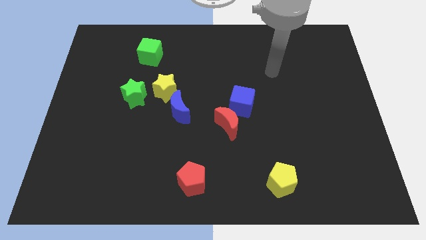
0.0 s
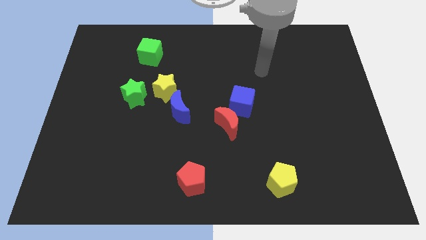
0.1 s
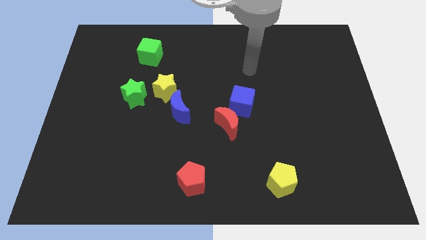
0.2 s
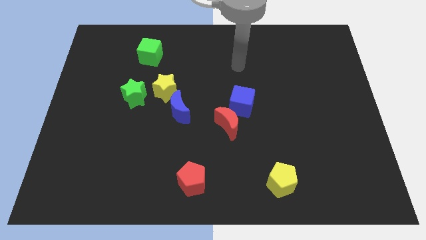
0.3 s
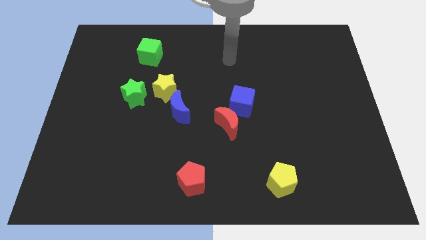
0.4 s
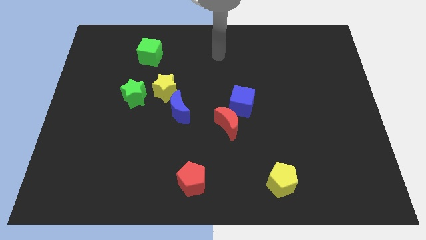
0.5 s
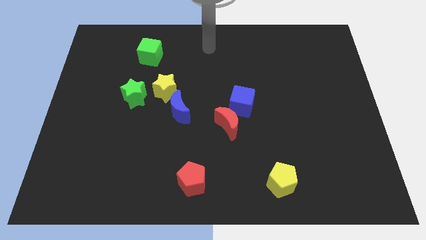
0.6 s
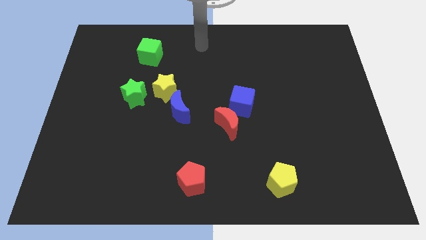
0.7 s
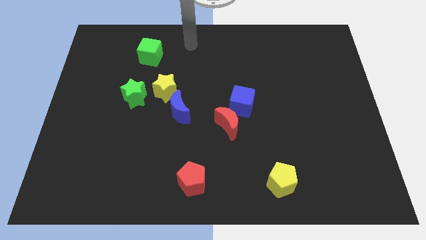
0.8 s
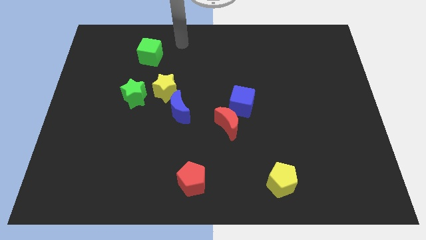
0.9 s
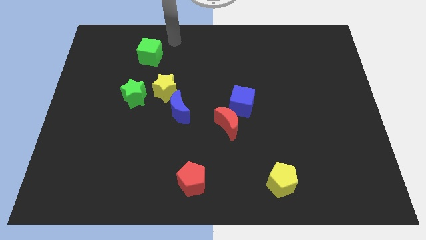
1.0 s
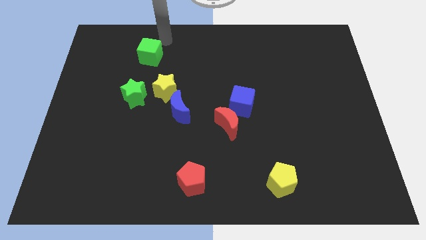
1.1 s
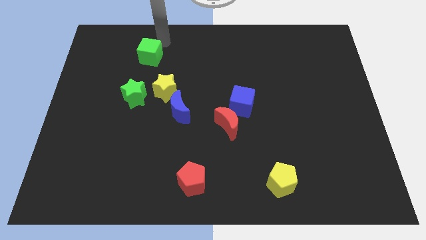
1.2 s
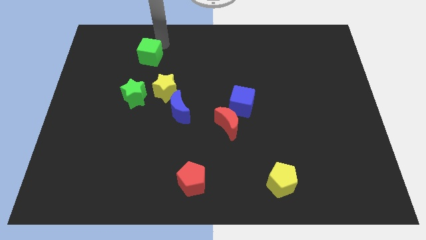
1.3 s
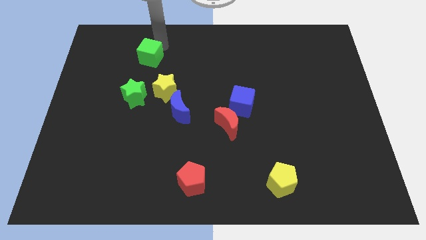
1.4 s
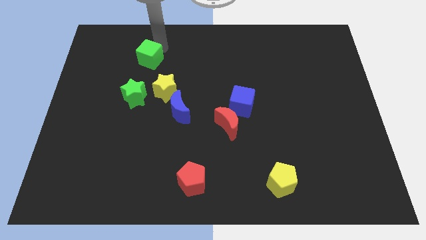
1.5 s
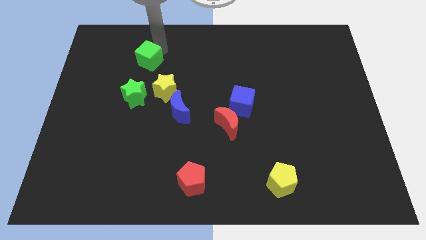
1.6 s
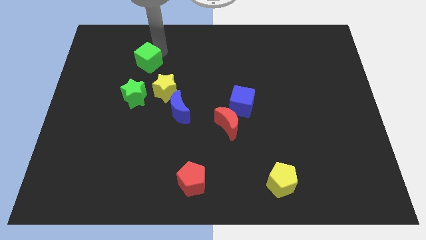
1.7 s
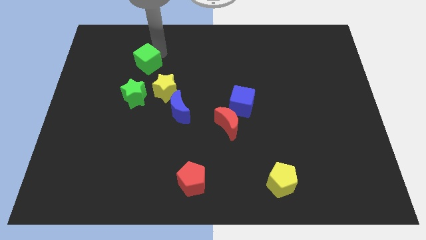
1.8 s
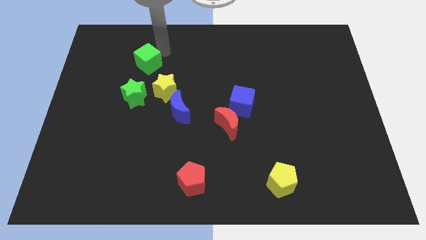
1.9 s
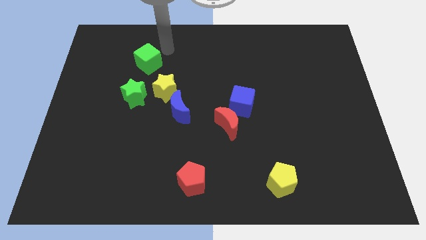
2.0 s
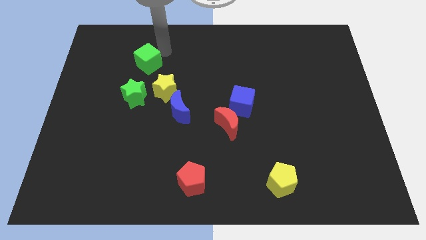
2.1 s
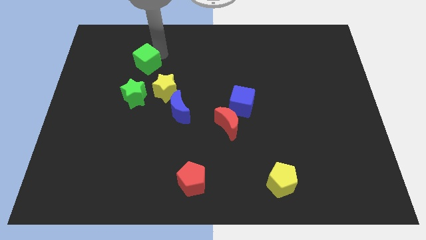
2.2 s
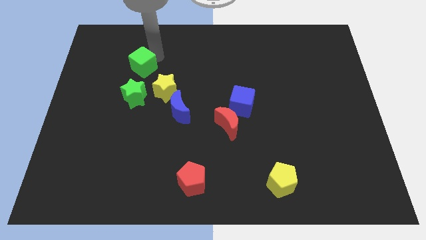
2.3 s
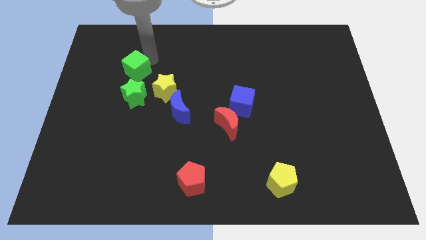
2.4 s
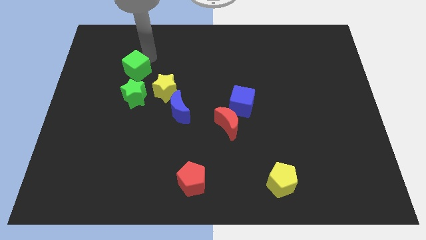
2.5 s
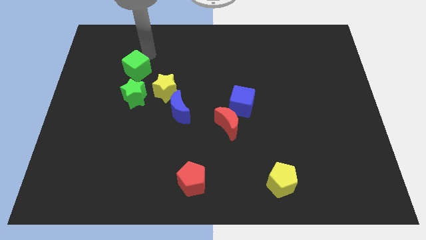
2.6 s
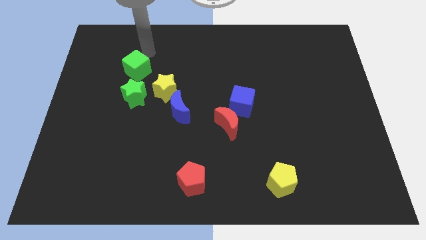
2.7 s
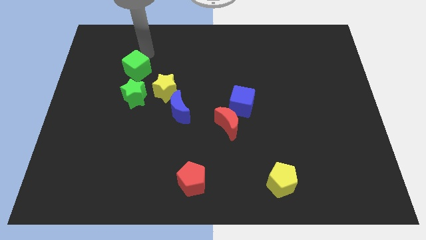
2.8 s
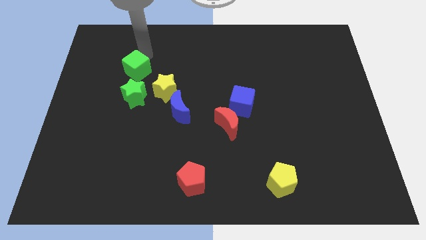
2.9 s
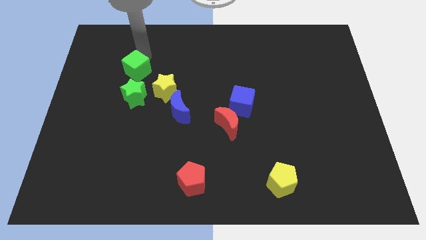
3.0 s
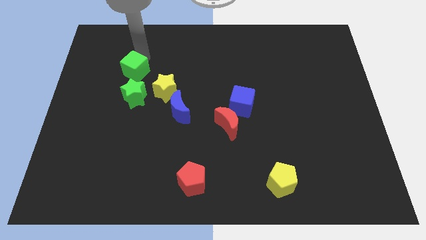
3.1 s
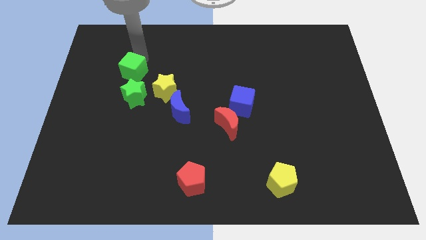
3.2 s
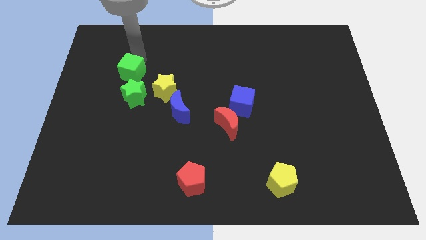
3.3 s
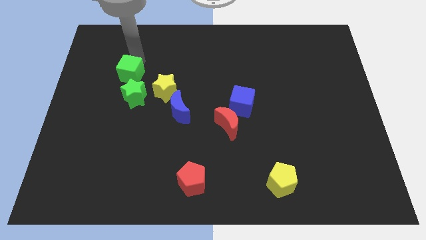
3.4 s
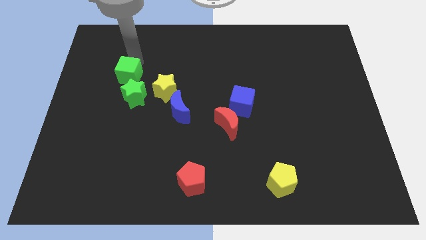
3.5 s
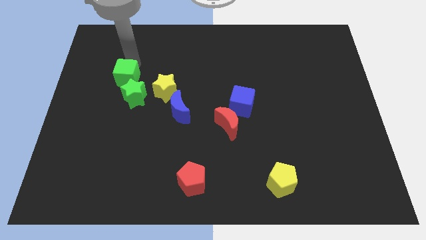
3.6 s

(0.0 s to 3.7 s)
slightly slide the green cube downwards

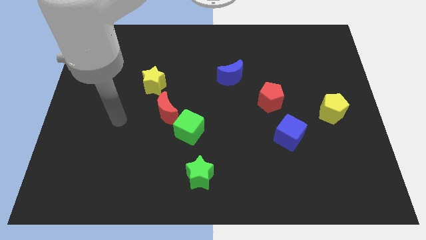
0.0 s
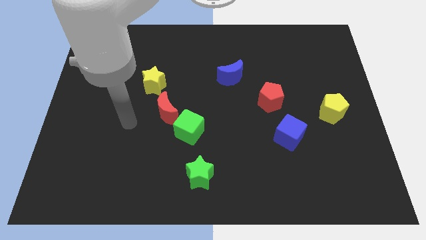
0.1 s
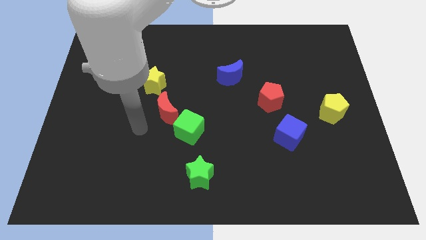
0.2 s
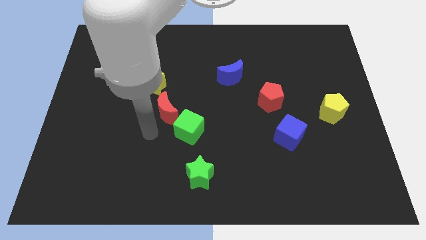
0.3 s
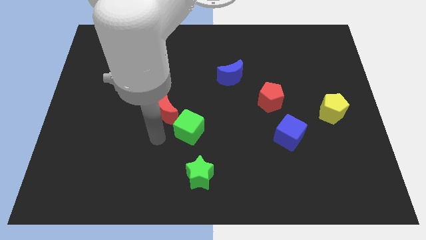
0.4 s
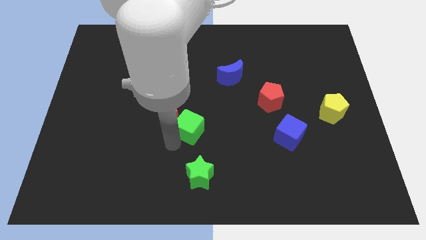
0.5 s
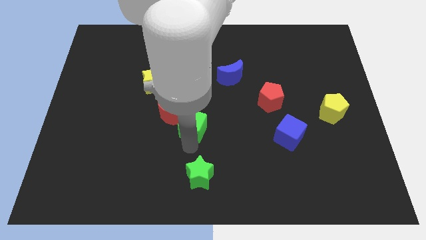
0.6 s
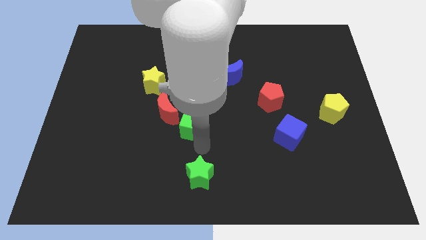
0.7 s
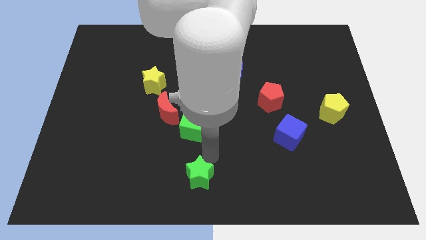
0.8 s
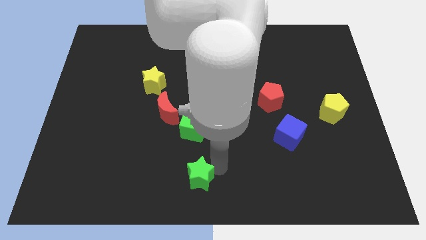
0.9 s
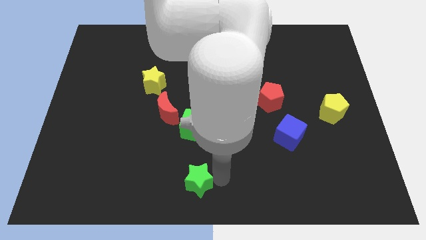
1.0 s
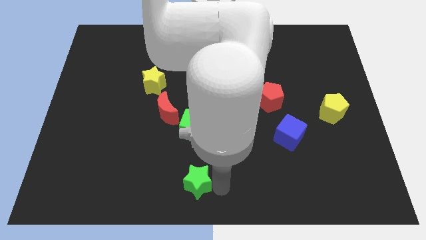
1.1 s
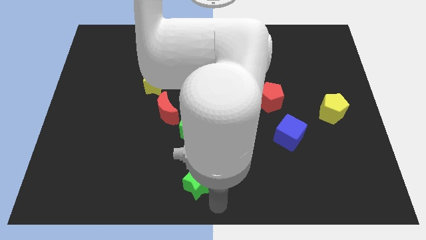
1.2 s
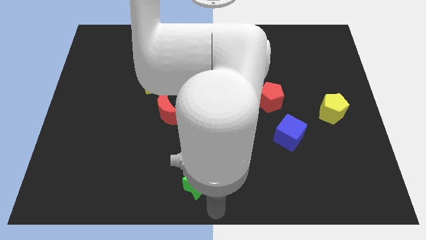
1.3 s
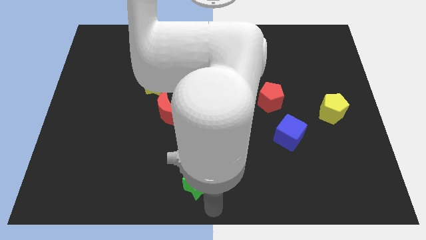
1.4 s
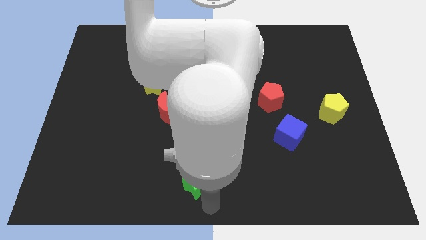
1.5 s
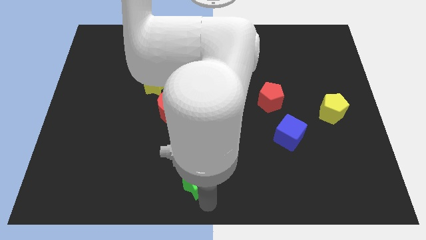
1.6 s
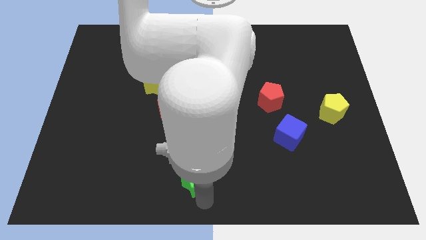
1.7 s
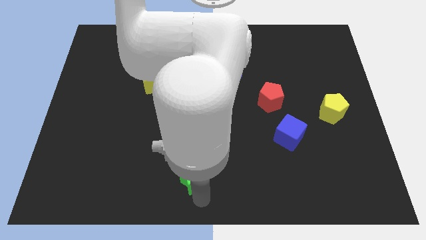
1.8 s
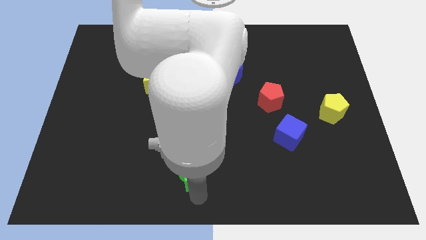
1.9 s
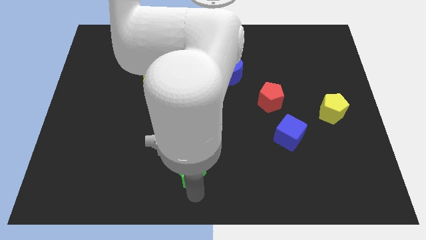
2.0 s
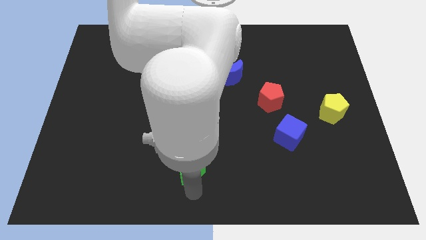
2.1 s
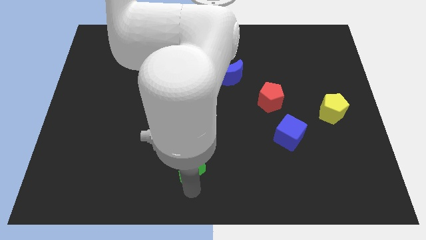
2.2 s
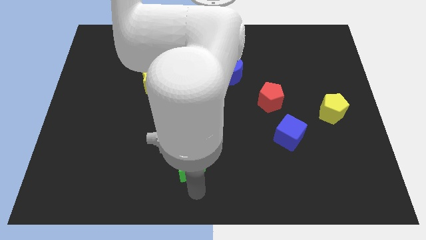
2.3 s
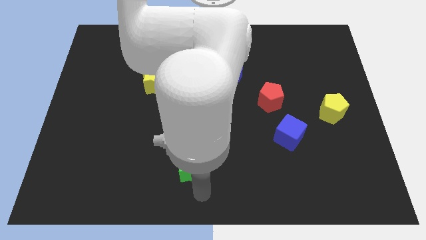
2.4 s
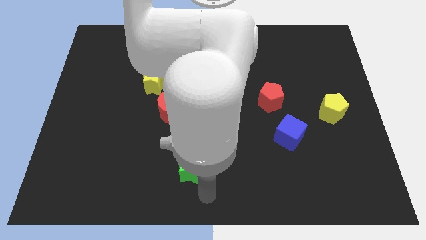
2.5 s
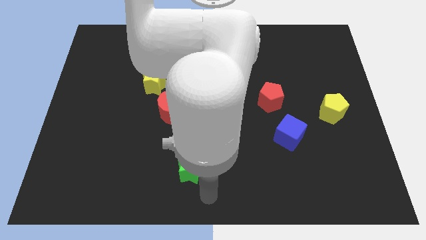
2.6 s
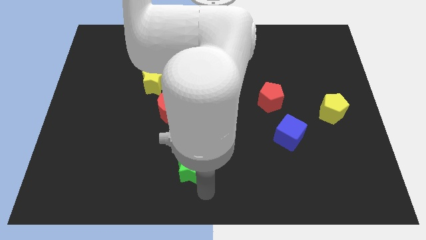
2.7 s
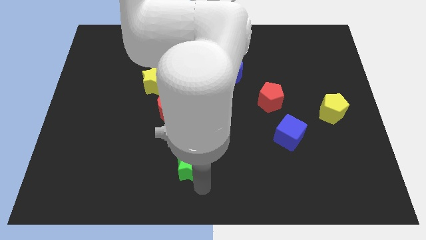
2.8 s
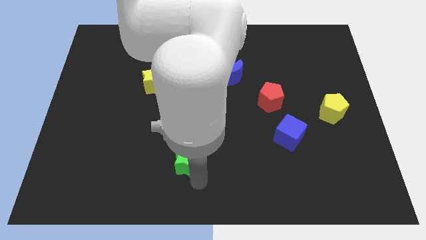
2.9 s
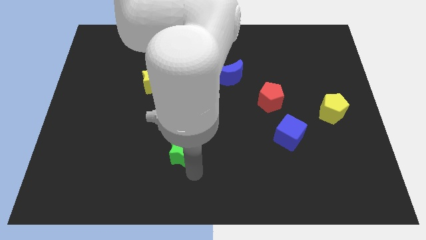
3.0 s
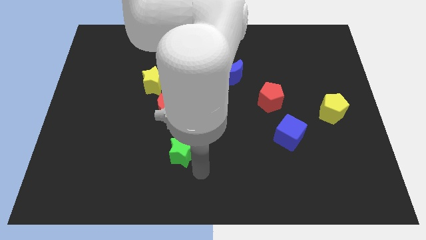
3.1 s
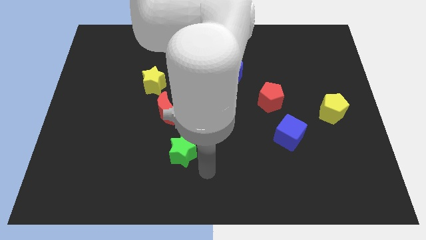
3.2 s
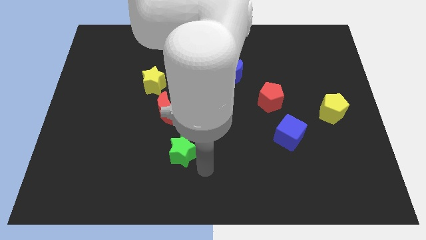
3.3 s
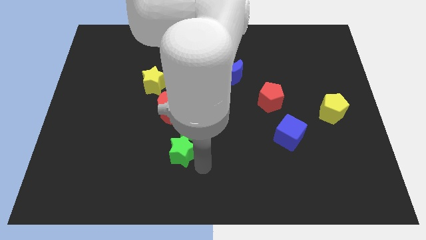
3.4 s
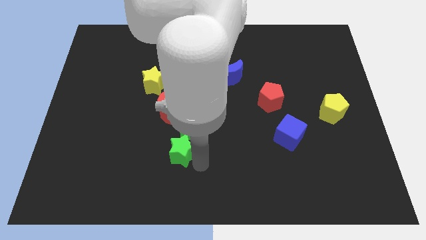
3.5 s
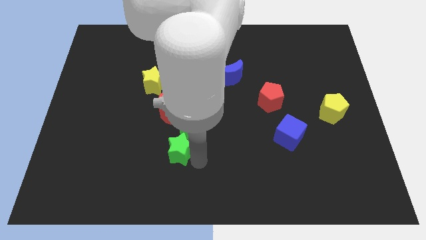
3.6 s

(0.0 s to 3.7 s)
push the green star diagonally upwards and left somewhat

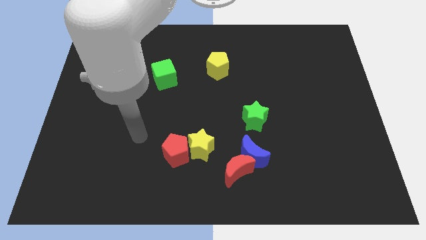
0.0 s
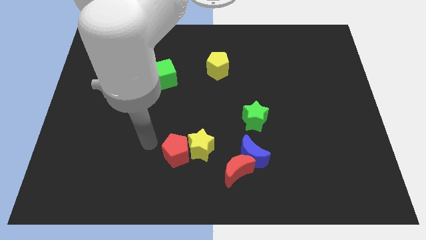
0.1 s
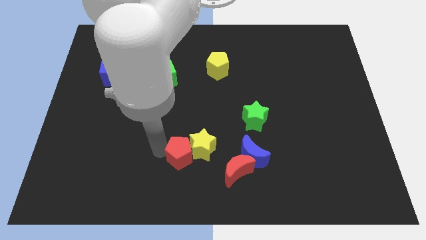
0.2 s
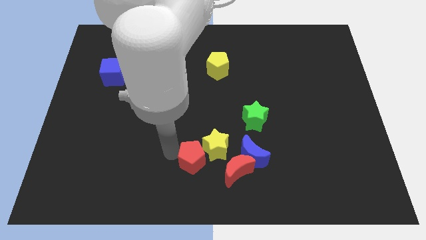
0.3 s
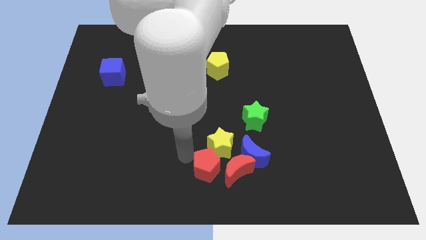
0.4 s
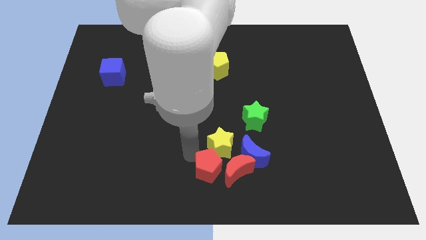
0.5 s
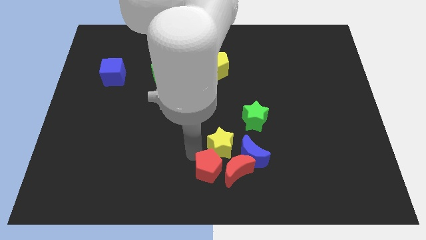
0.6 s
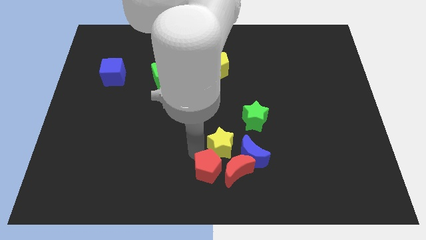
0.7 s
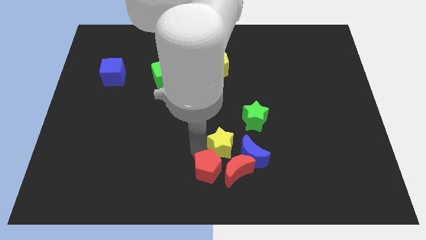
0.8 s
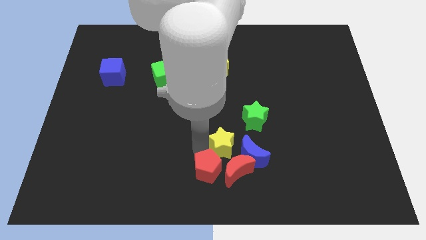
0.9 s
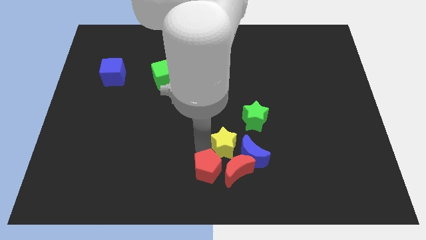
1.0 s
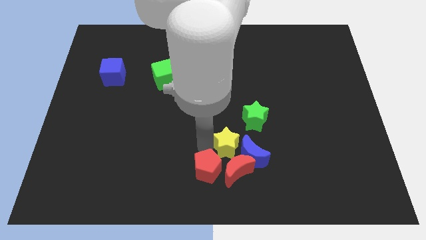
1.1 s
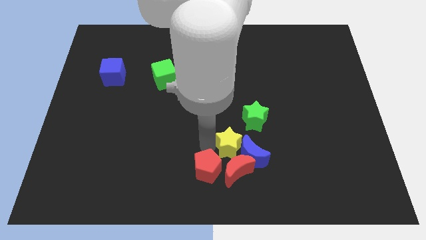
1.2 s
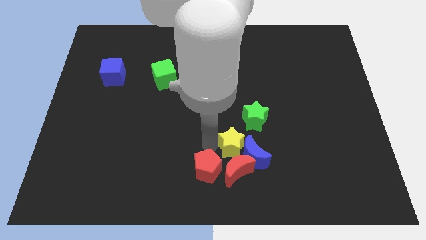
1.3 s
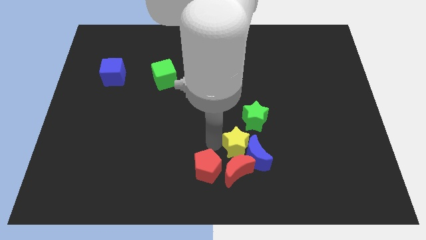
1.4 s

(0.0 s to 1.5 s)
move the yellow star a little bit right
